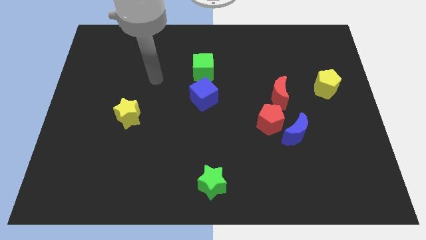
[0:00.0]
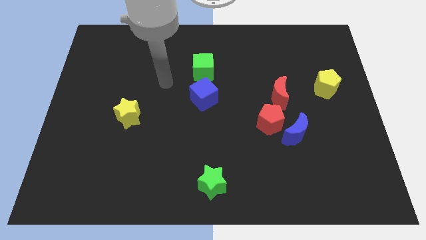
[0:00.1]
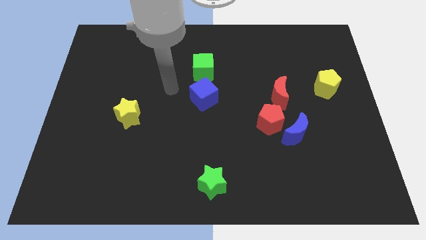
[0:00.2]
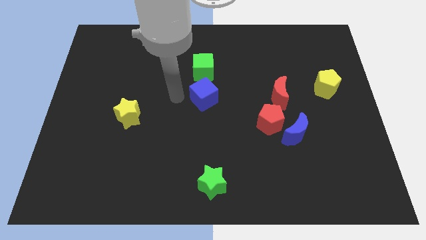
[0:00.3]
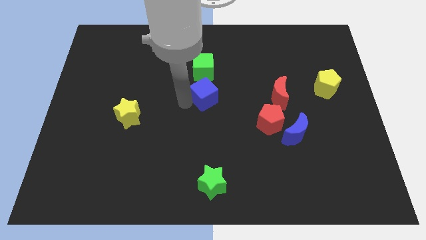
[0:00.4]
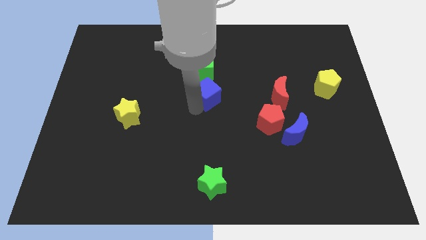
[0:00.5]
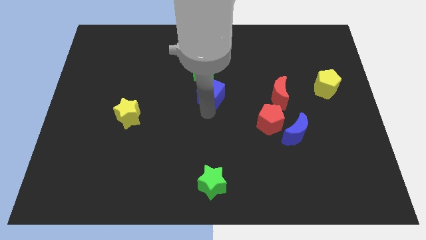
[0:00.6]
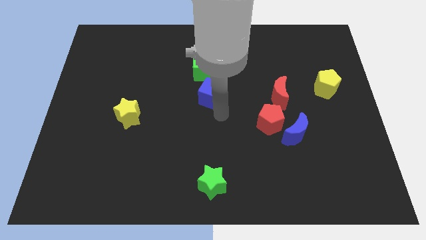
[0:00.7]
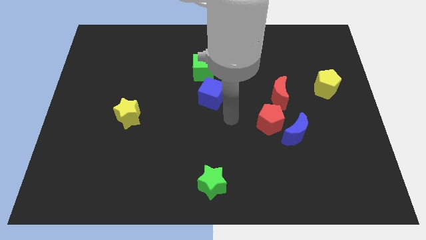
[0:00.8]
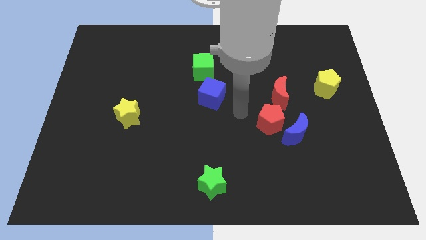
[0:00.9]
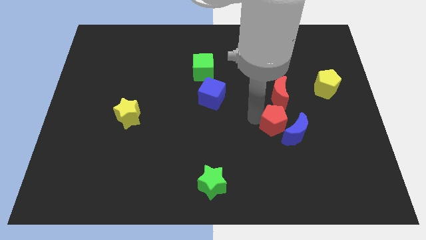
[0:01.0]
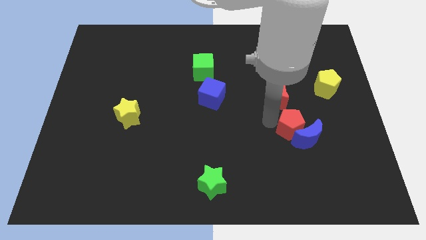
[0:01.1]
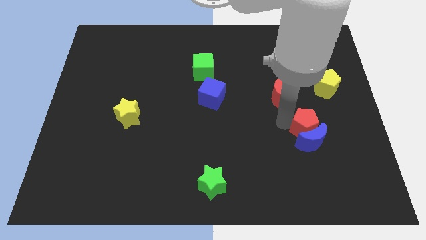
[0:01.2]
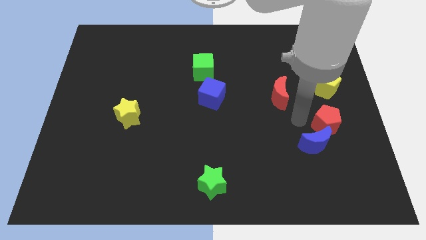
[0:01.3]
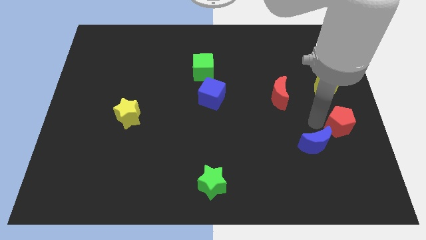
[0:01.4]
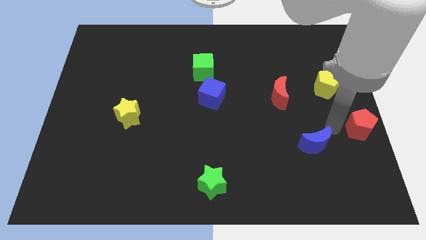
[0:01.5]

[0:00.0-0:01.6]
separate the blue moon from the red pentagon

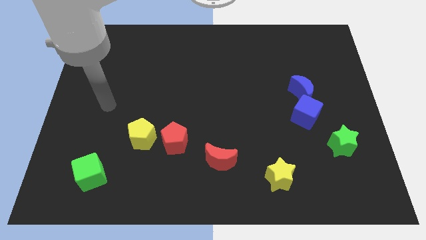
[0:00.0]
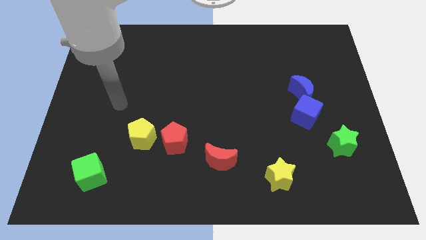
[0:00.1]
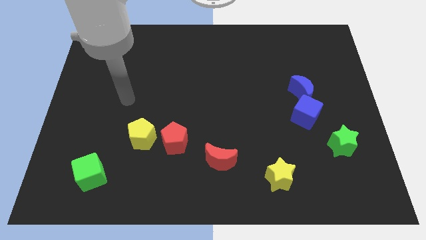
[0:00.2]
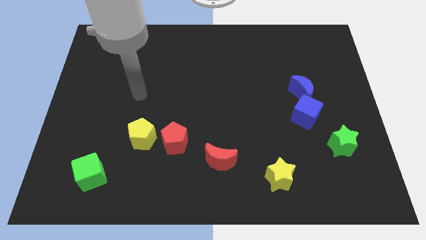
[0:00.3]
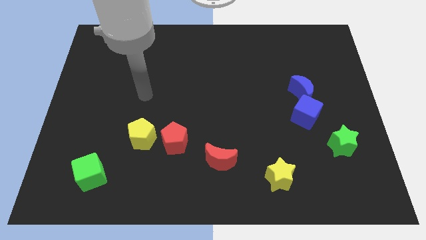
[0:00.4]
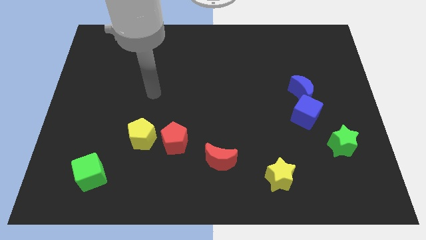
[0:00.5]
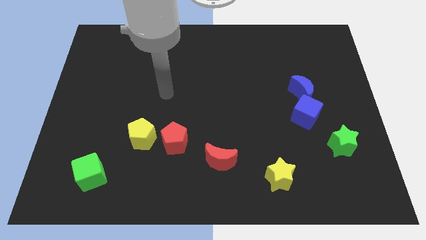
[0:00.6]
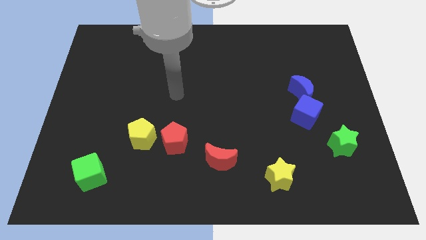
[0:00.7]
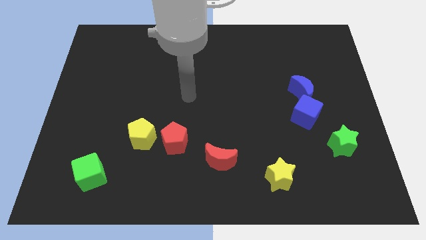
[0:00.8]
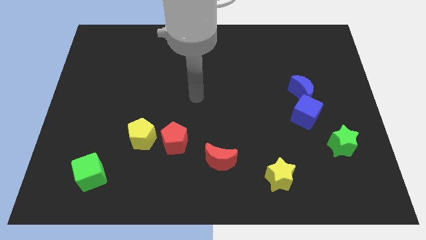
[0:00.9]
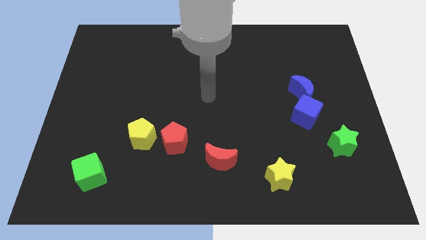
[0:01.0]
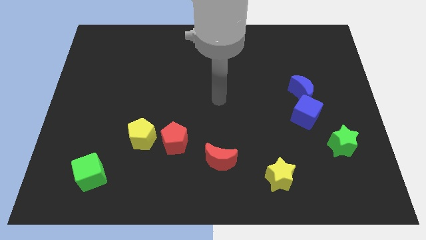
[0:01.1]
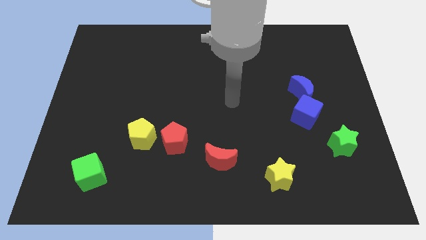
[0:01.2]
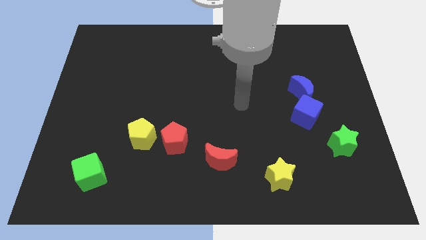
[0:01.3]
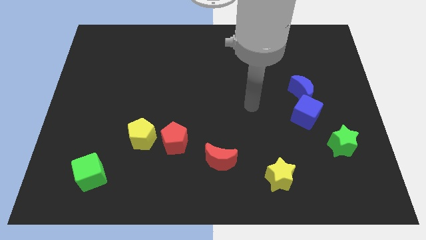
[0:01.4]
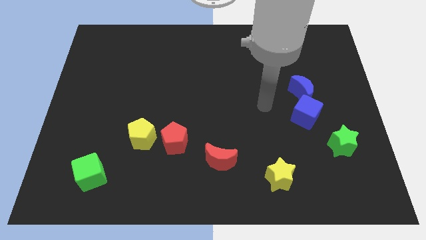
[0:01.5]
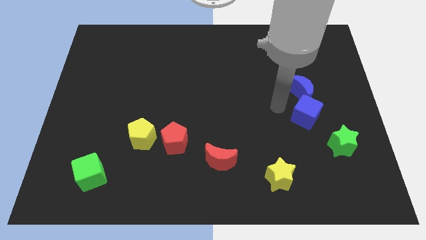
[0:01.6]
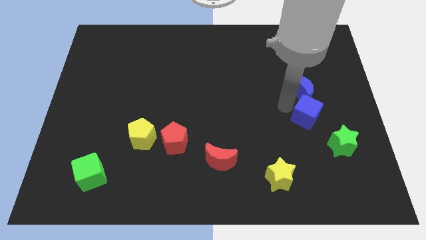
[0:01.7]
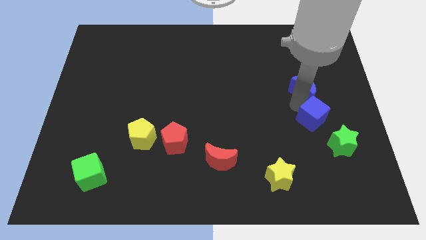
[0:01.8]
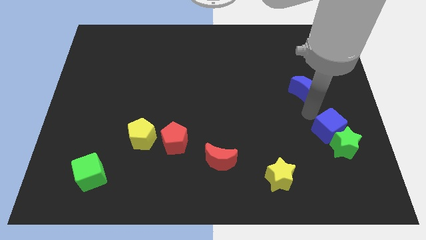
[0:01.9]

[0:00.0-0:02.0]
pull the blue moon apart from the blue cube

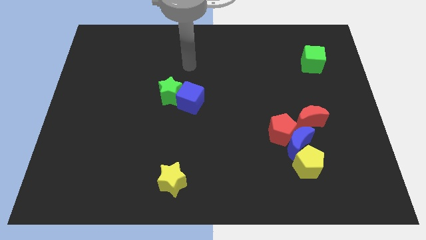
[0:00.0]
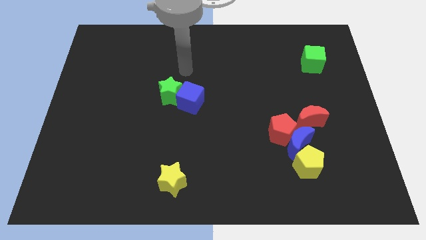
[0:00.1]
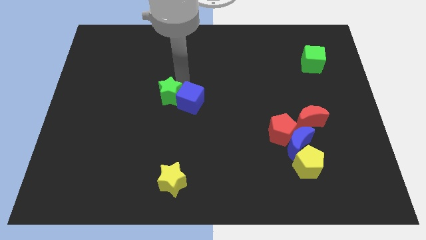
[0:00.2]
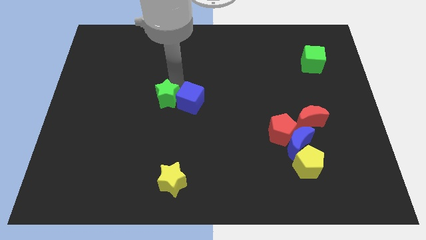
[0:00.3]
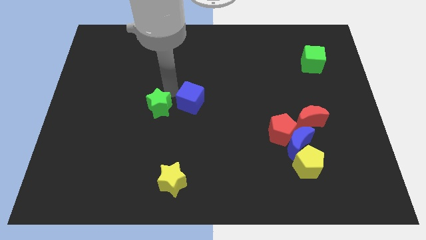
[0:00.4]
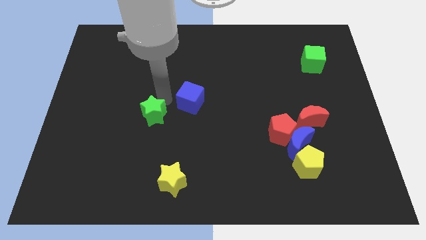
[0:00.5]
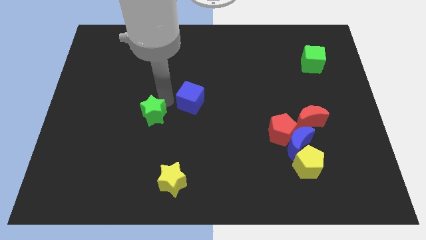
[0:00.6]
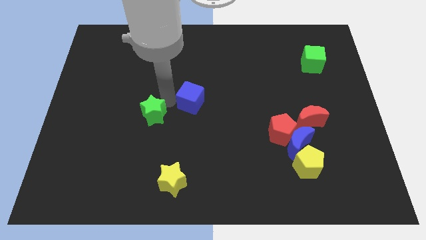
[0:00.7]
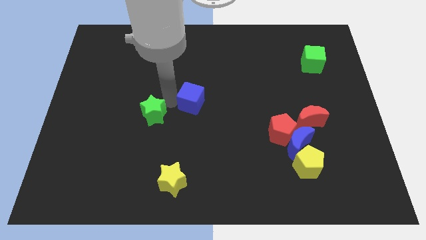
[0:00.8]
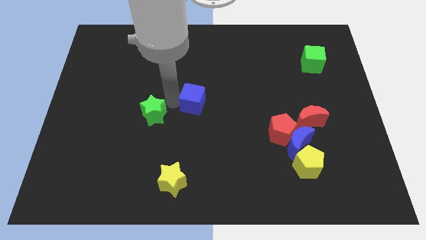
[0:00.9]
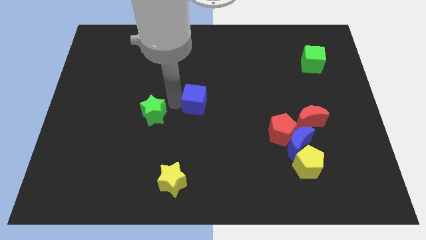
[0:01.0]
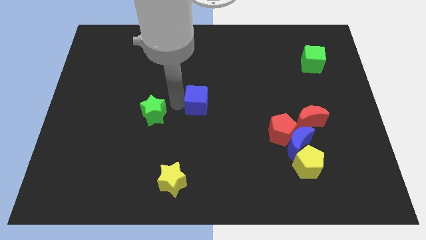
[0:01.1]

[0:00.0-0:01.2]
separate the blue cube from the green star

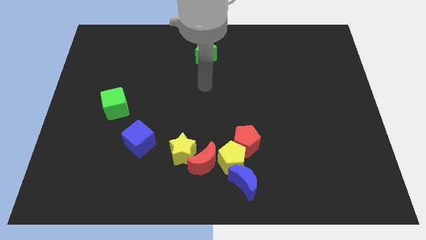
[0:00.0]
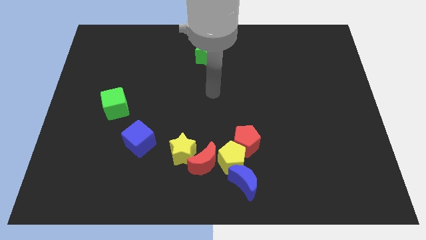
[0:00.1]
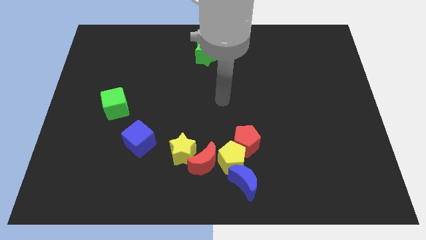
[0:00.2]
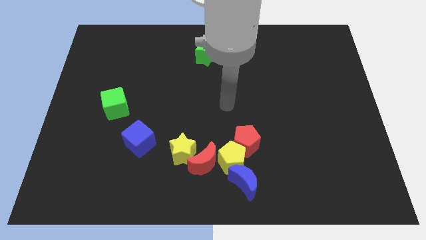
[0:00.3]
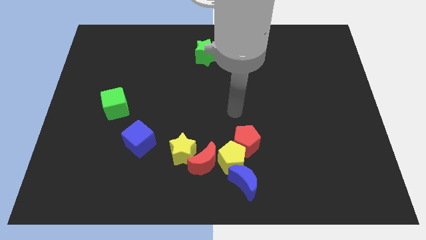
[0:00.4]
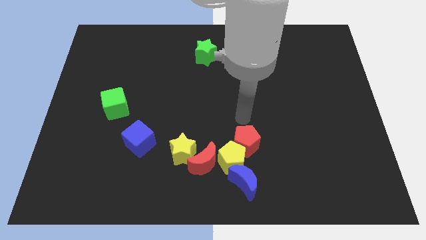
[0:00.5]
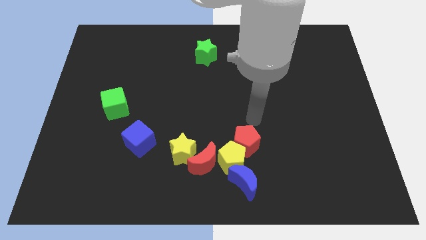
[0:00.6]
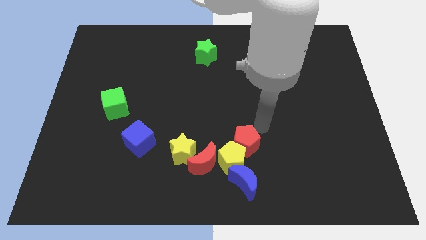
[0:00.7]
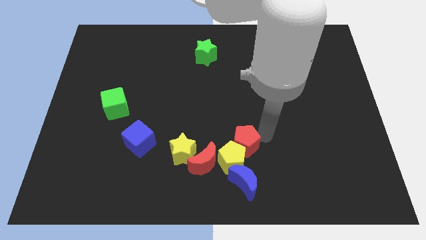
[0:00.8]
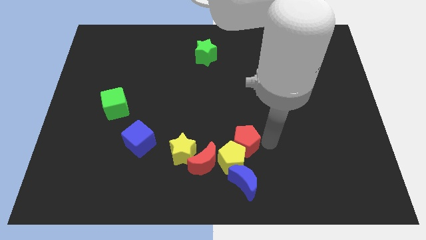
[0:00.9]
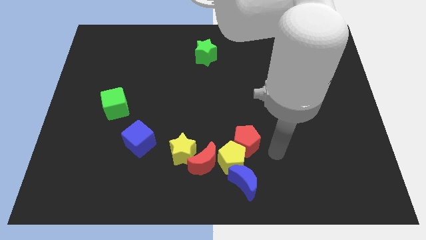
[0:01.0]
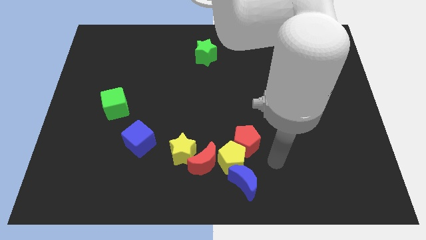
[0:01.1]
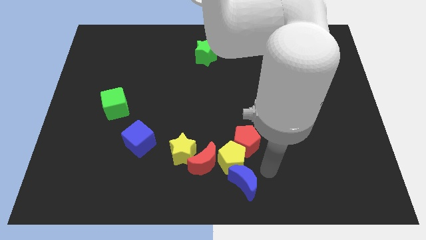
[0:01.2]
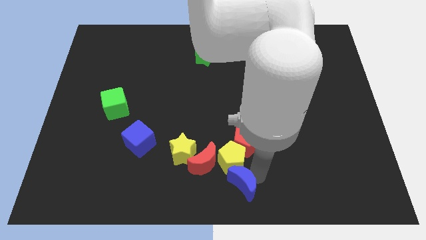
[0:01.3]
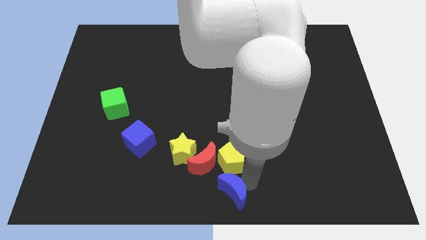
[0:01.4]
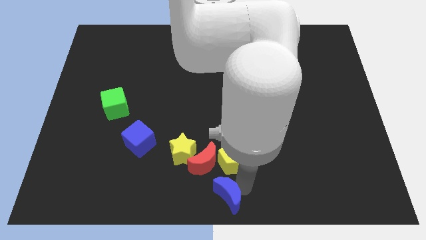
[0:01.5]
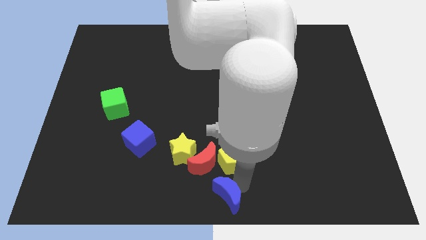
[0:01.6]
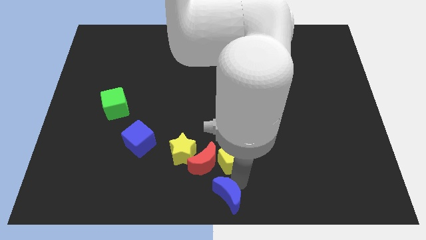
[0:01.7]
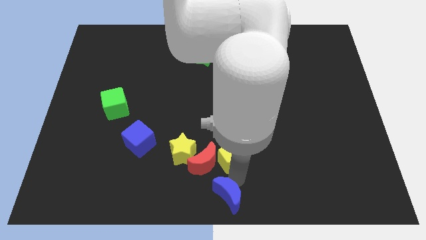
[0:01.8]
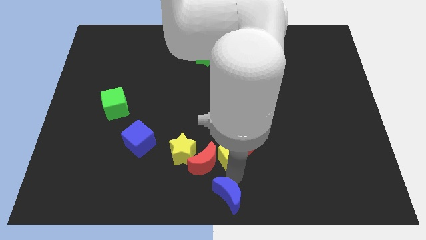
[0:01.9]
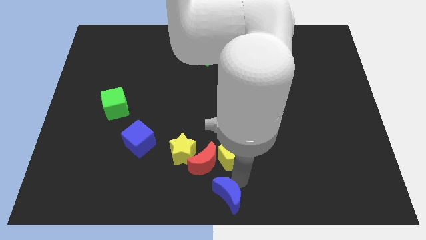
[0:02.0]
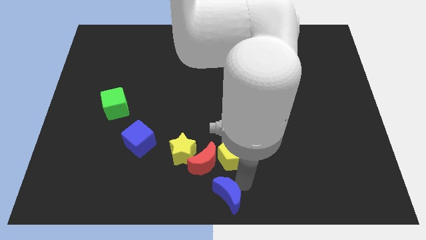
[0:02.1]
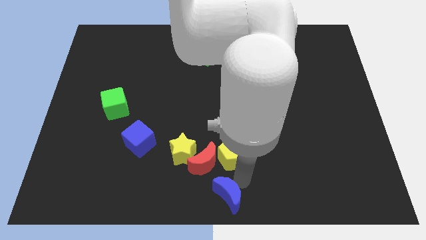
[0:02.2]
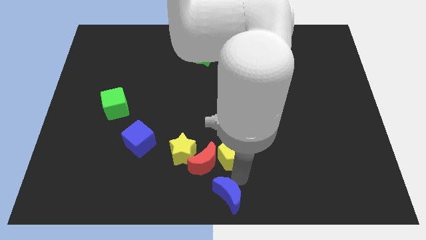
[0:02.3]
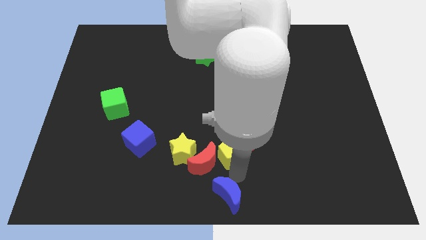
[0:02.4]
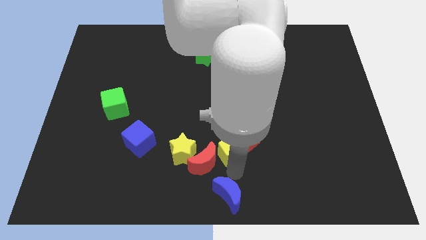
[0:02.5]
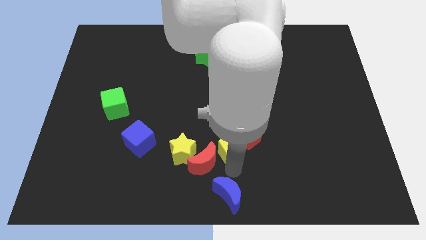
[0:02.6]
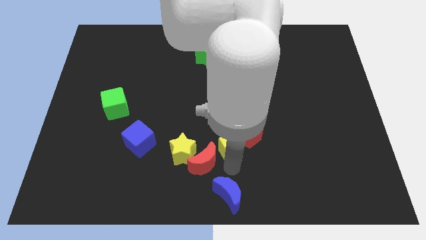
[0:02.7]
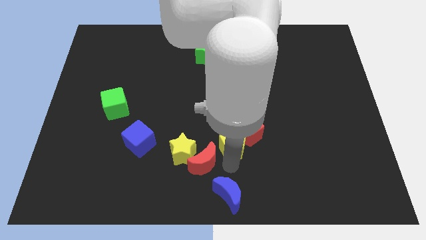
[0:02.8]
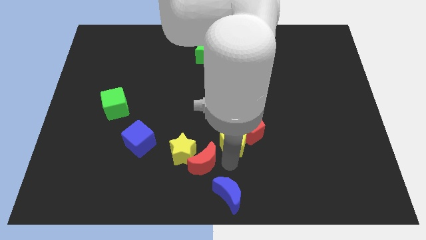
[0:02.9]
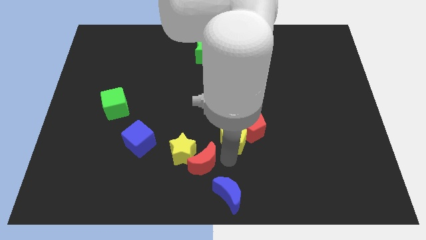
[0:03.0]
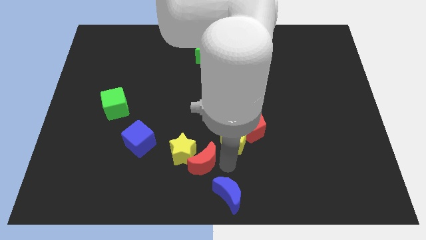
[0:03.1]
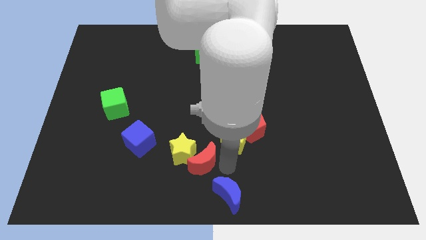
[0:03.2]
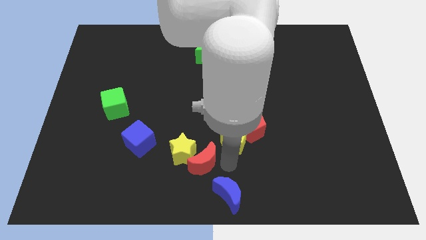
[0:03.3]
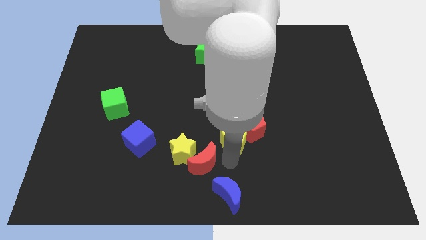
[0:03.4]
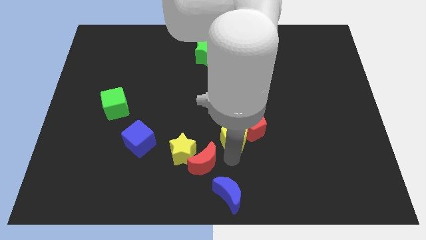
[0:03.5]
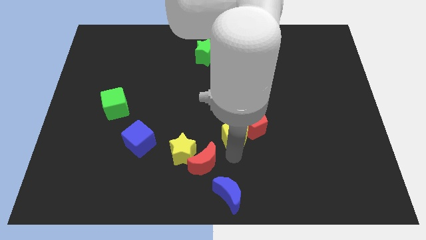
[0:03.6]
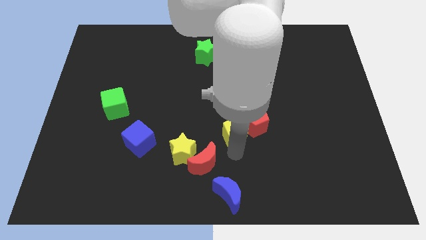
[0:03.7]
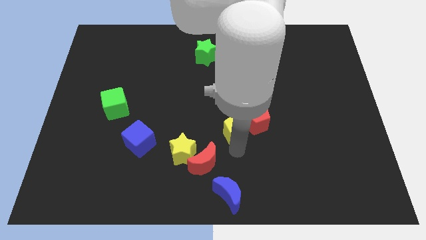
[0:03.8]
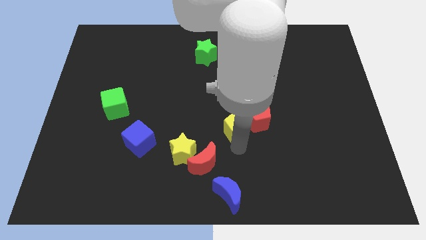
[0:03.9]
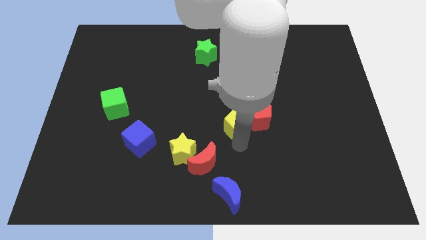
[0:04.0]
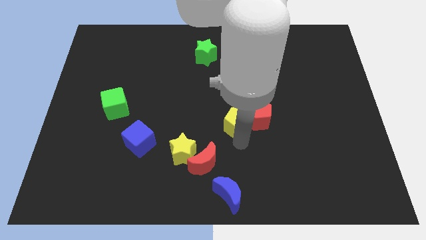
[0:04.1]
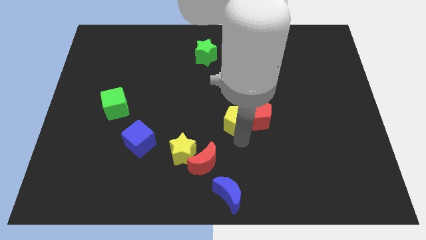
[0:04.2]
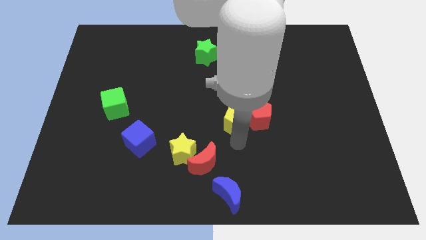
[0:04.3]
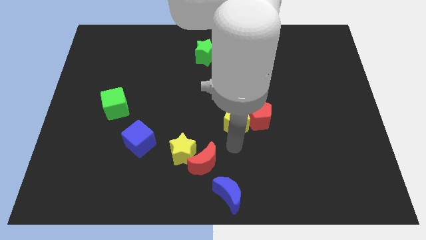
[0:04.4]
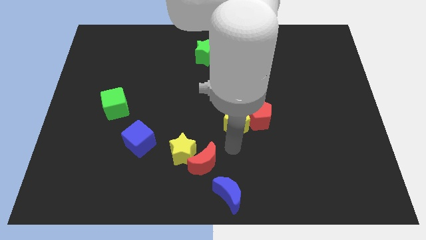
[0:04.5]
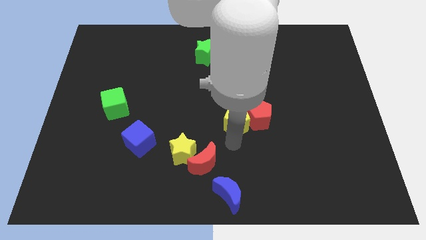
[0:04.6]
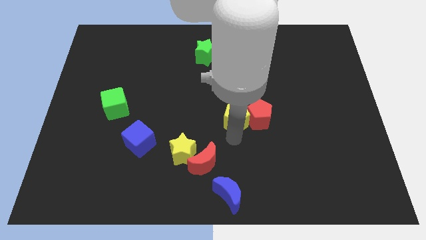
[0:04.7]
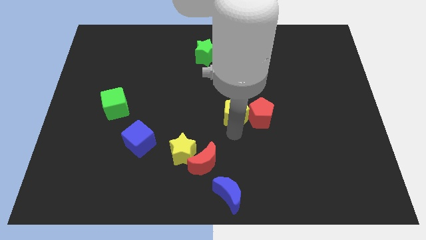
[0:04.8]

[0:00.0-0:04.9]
move the yellow pentagon away from the red pentagon, blue moon, and red moon
